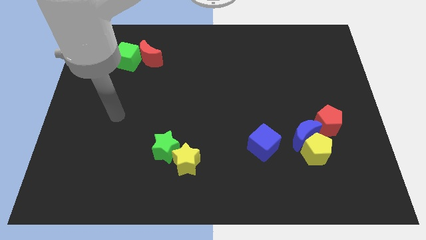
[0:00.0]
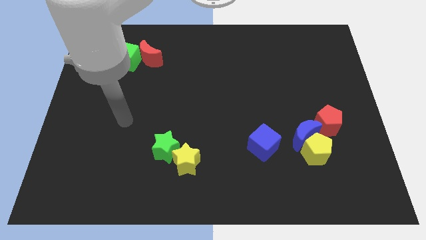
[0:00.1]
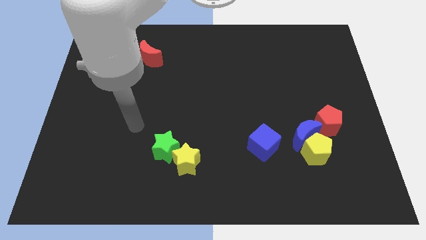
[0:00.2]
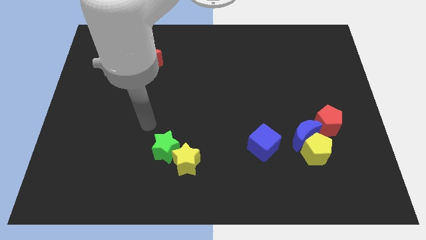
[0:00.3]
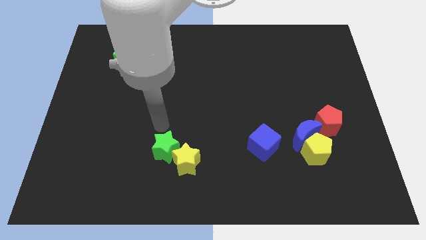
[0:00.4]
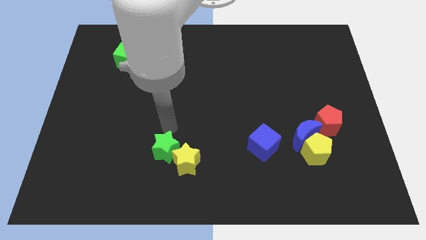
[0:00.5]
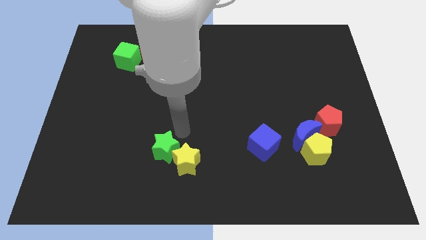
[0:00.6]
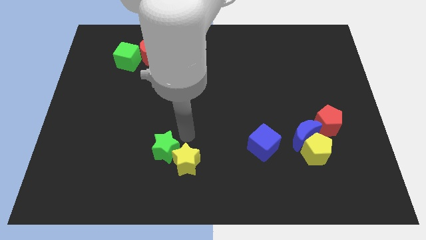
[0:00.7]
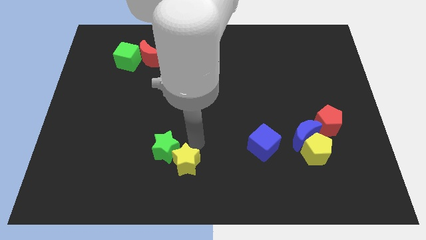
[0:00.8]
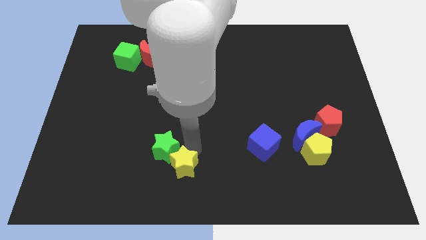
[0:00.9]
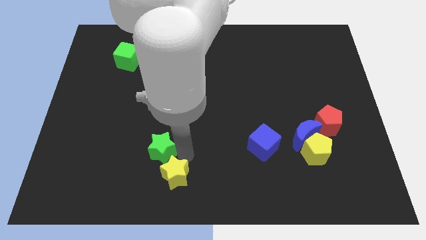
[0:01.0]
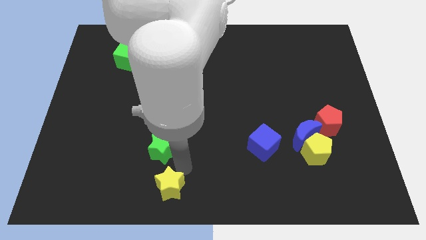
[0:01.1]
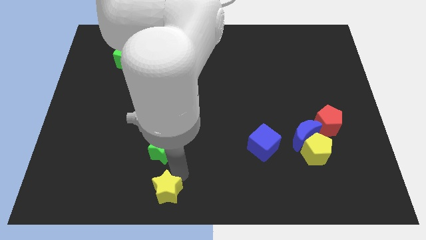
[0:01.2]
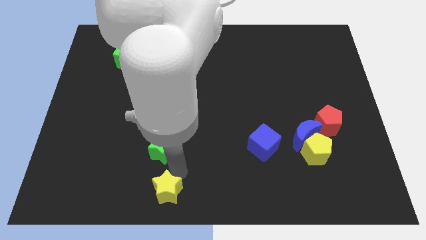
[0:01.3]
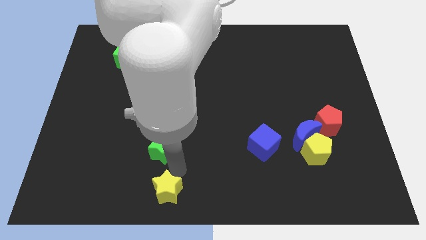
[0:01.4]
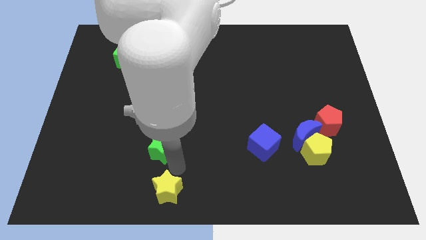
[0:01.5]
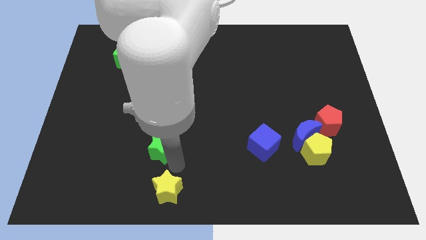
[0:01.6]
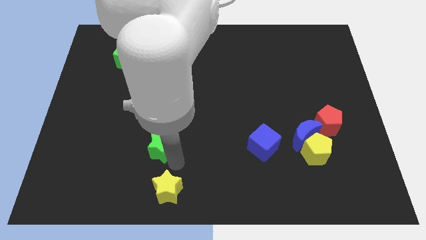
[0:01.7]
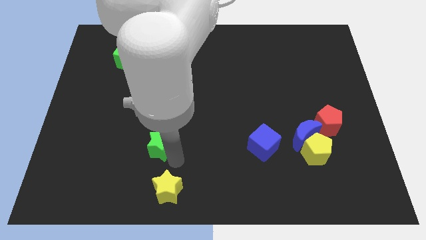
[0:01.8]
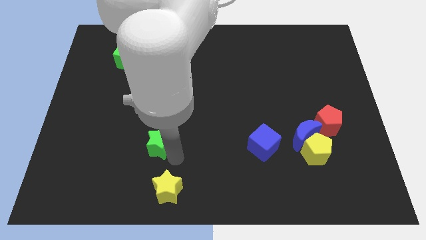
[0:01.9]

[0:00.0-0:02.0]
pull the green star apart from the yellow star

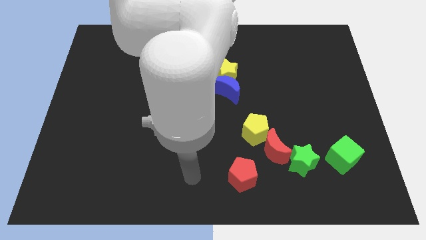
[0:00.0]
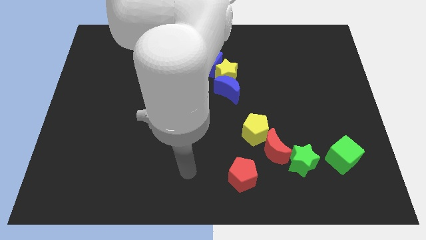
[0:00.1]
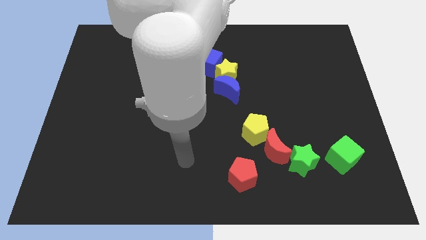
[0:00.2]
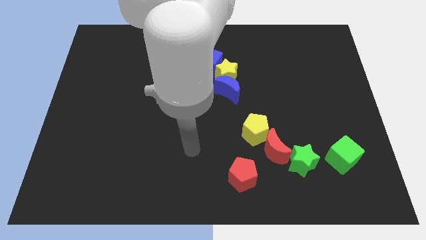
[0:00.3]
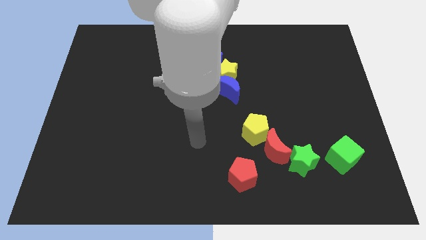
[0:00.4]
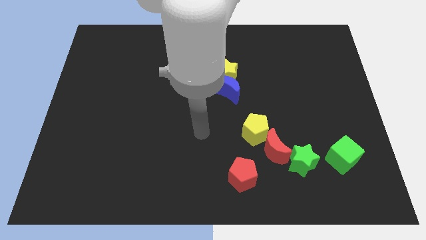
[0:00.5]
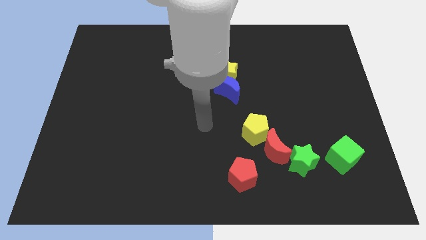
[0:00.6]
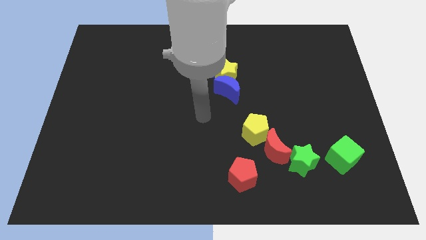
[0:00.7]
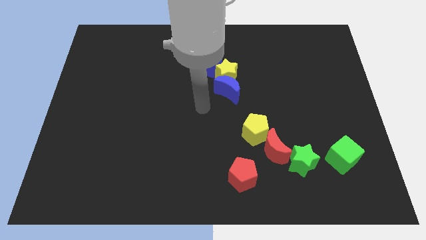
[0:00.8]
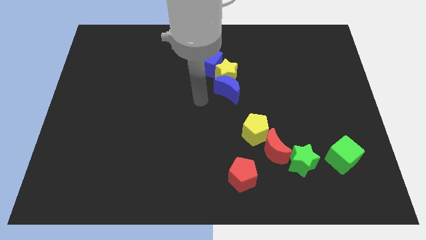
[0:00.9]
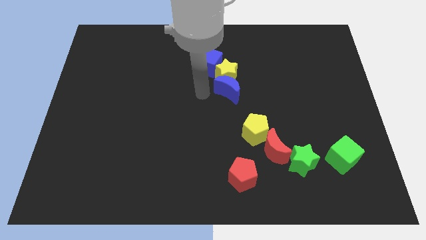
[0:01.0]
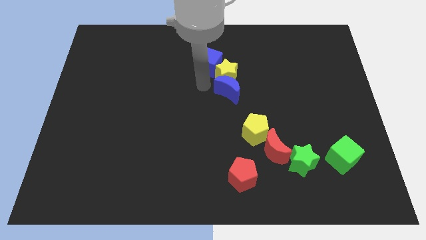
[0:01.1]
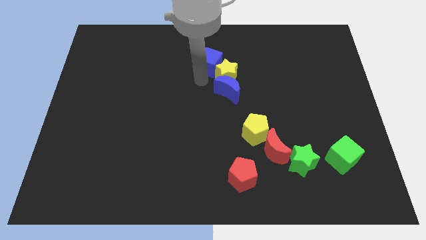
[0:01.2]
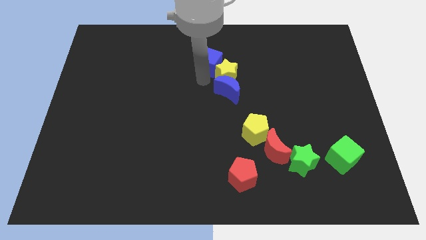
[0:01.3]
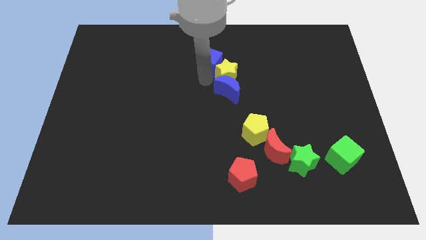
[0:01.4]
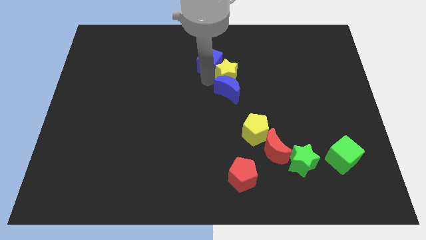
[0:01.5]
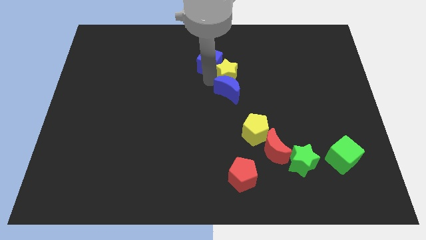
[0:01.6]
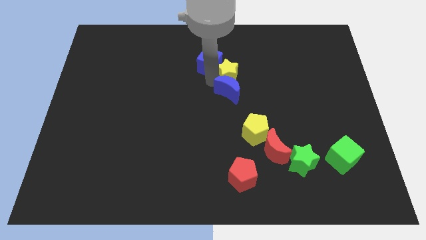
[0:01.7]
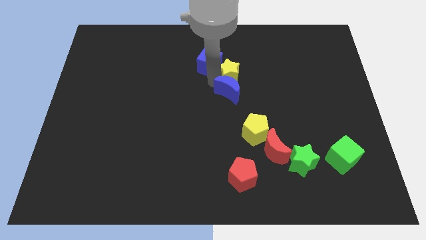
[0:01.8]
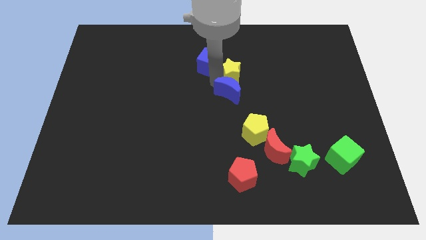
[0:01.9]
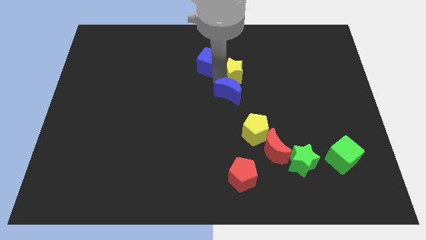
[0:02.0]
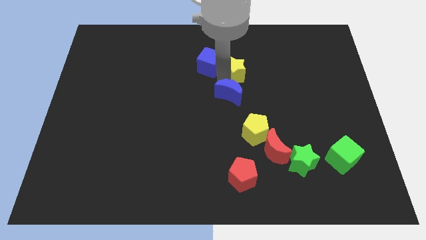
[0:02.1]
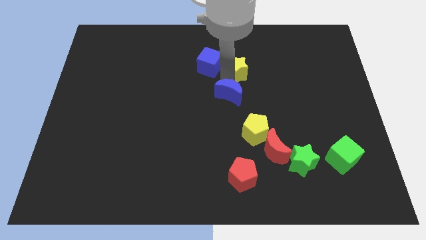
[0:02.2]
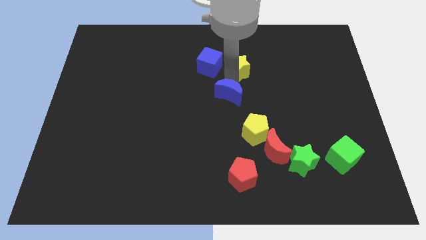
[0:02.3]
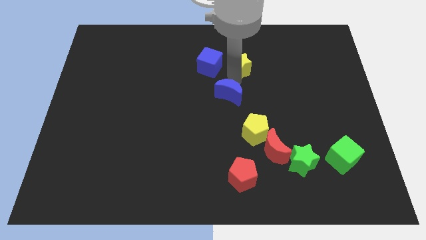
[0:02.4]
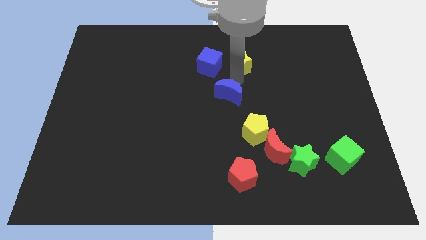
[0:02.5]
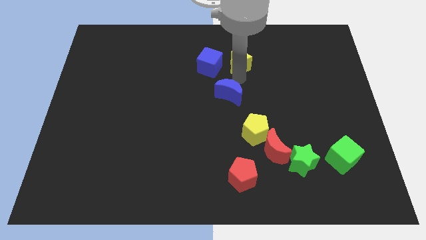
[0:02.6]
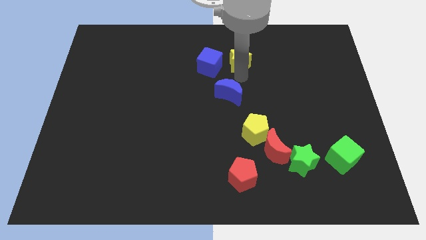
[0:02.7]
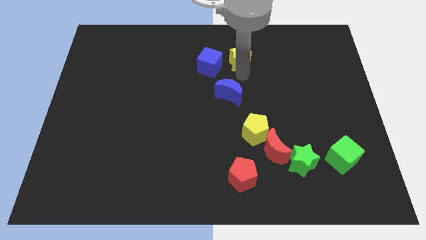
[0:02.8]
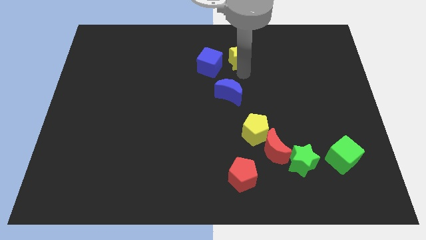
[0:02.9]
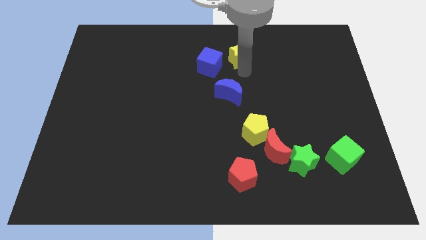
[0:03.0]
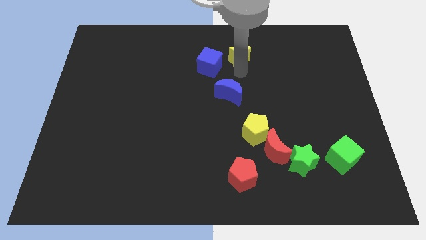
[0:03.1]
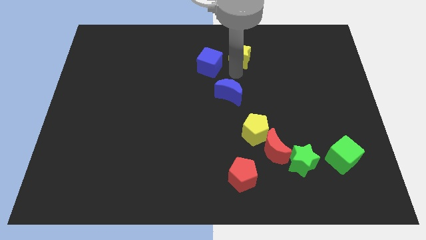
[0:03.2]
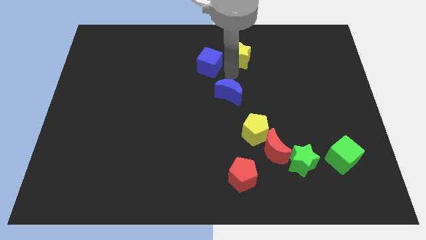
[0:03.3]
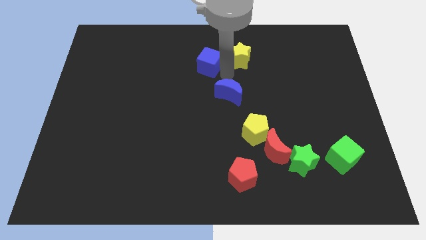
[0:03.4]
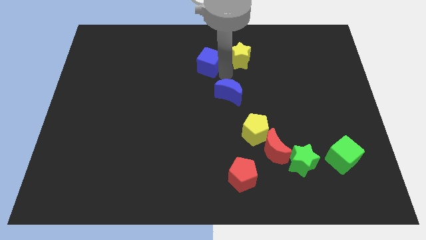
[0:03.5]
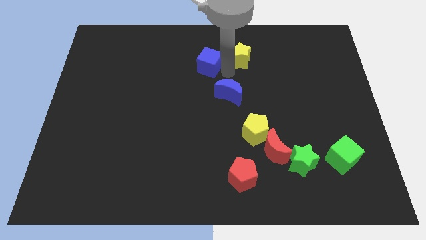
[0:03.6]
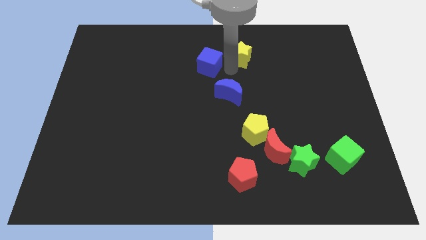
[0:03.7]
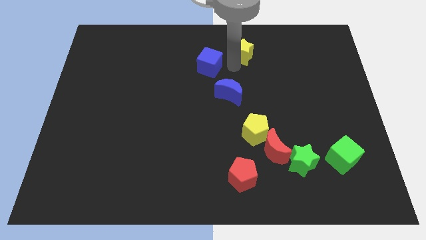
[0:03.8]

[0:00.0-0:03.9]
move the yellow star away from the blue moon and blue cube

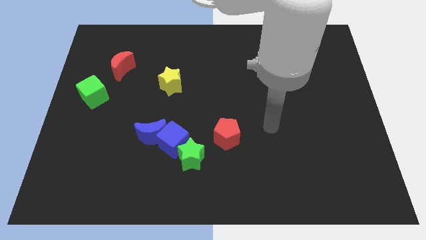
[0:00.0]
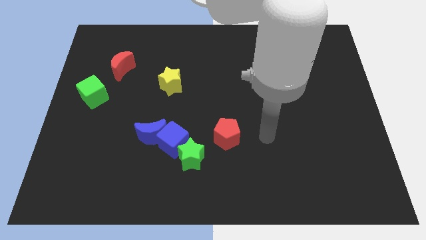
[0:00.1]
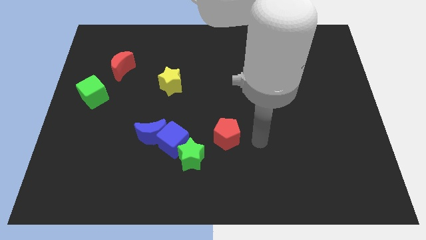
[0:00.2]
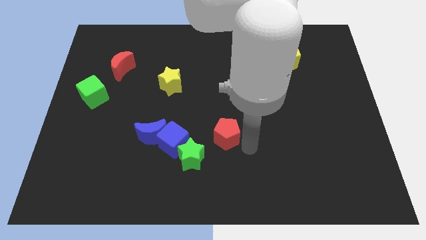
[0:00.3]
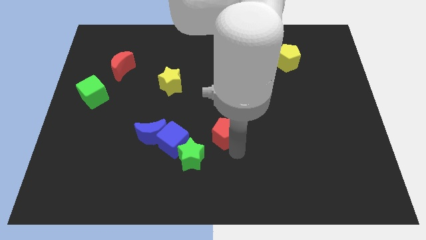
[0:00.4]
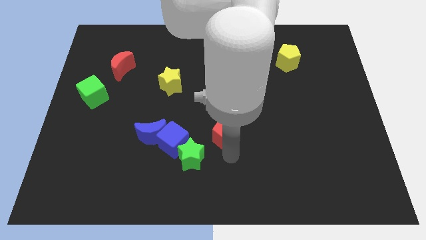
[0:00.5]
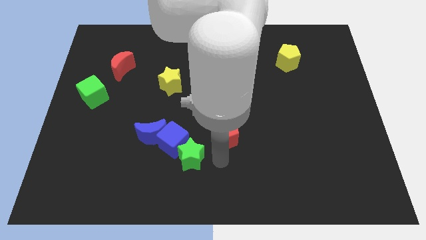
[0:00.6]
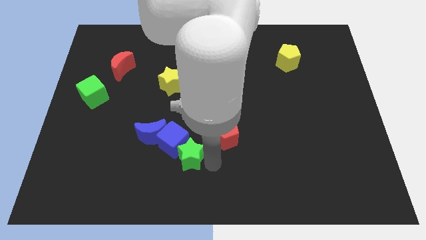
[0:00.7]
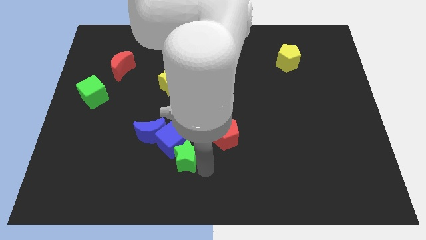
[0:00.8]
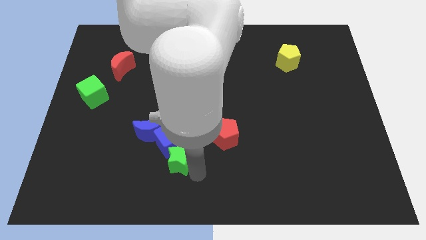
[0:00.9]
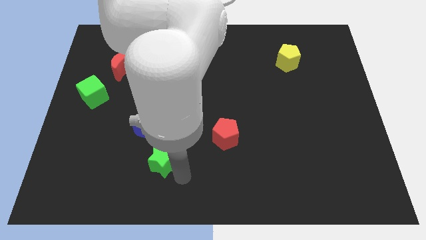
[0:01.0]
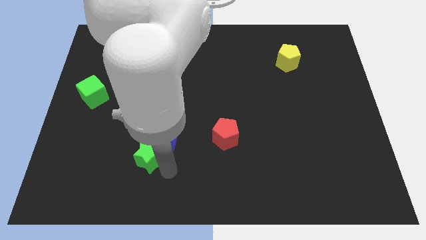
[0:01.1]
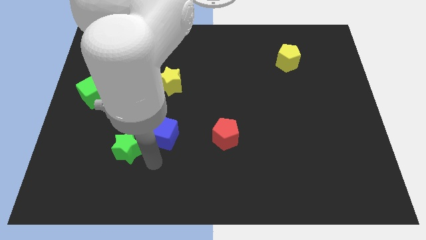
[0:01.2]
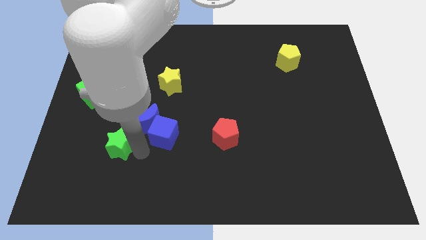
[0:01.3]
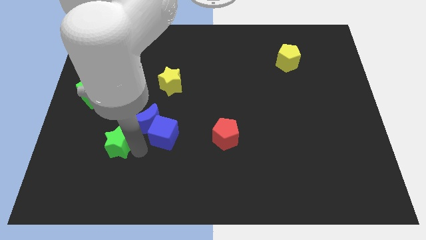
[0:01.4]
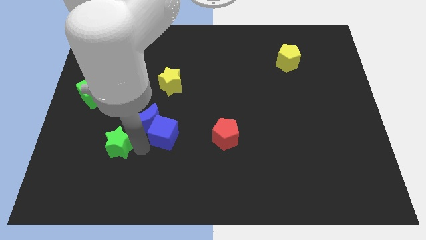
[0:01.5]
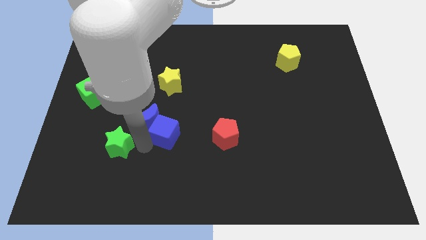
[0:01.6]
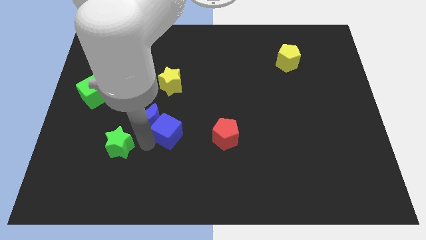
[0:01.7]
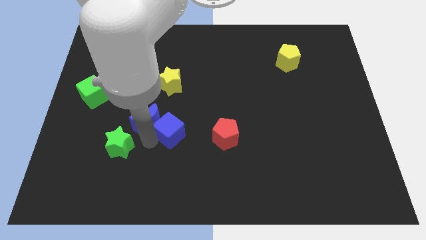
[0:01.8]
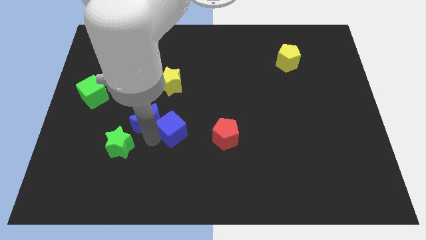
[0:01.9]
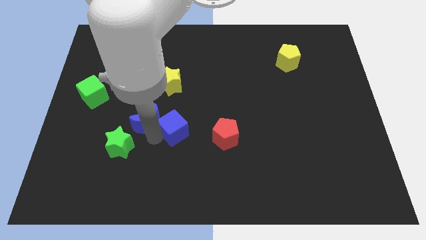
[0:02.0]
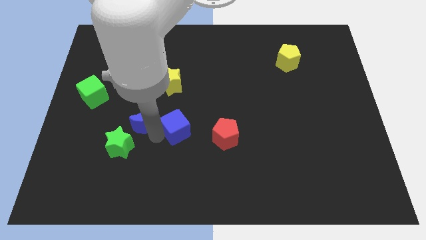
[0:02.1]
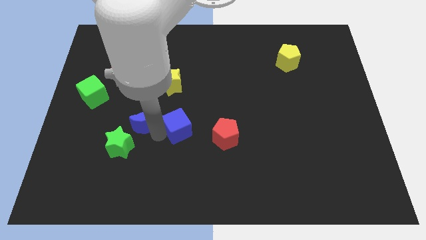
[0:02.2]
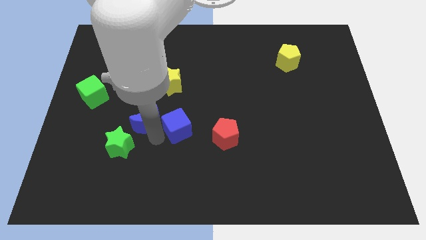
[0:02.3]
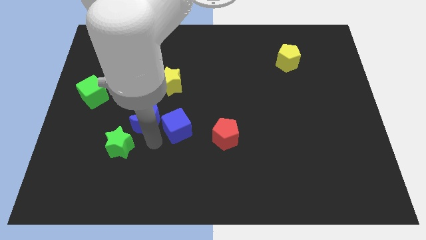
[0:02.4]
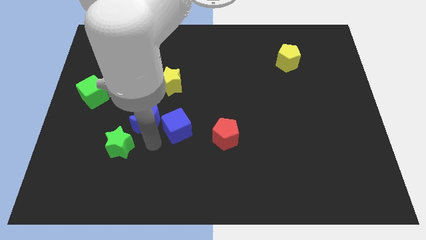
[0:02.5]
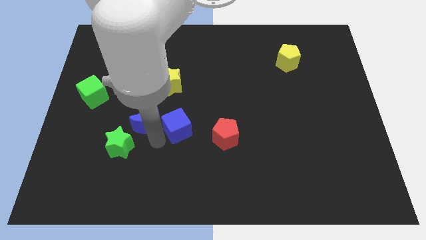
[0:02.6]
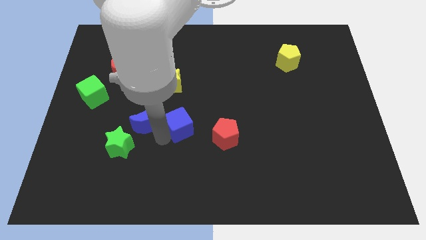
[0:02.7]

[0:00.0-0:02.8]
pull the blue cube apart from the blue moon and green star

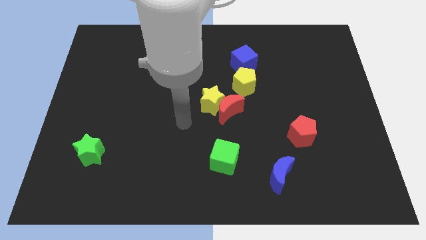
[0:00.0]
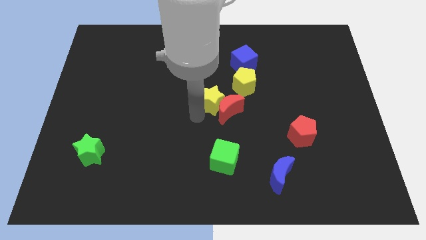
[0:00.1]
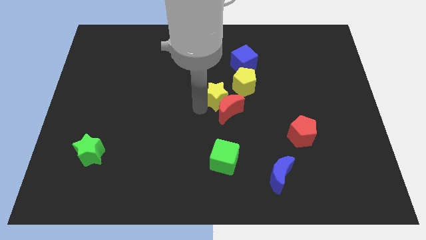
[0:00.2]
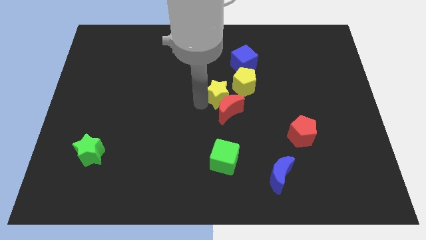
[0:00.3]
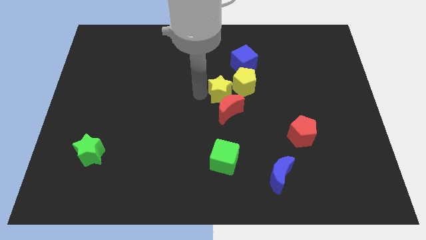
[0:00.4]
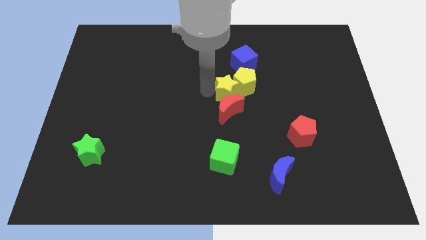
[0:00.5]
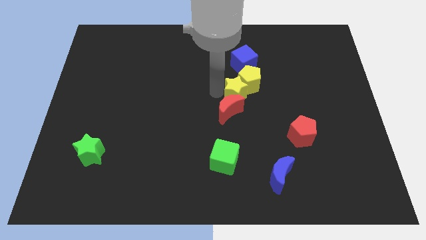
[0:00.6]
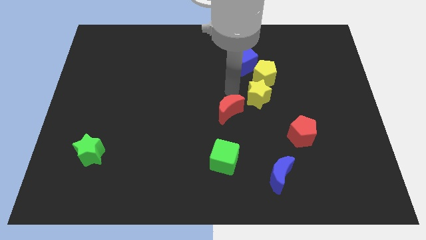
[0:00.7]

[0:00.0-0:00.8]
separate the red moon from the yellow star and yellow pentagon
